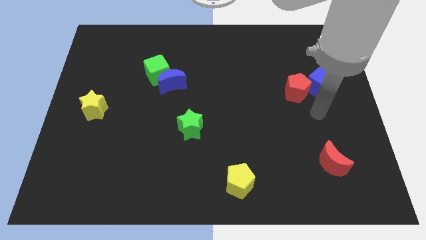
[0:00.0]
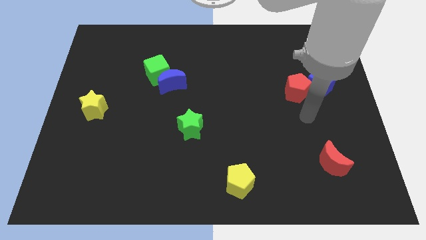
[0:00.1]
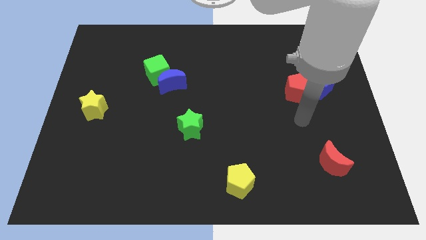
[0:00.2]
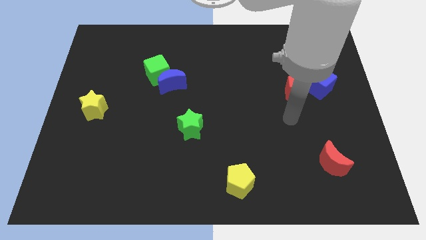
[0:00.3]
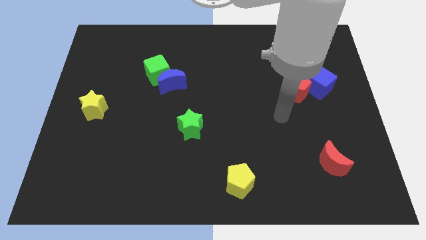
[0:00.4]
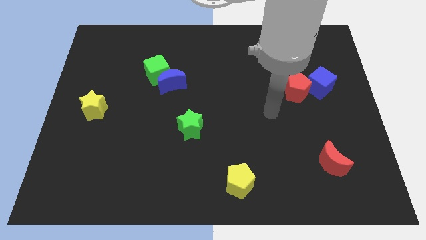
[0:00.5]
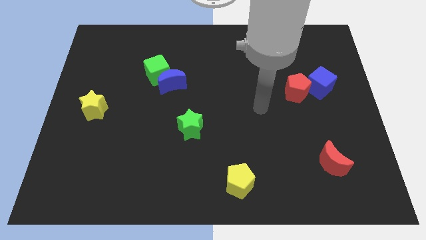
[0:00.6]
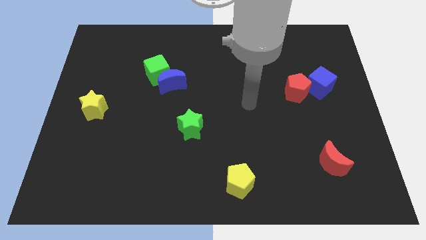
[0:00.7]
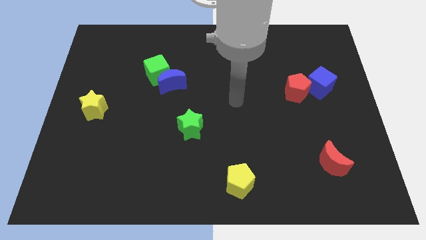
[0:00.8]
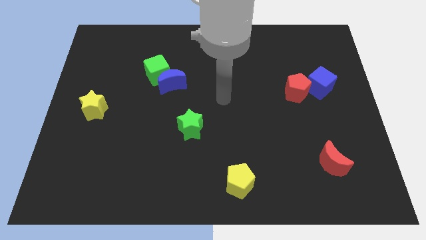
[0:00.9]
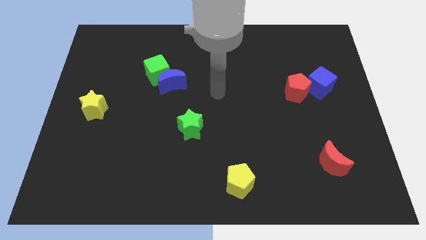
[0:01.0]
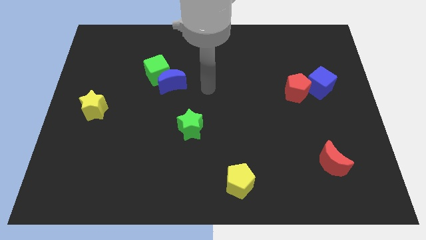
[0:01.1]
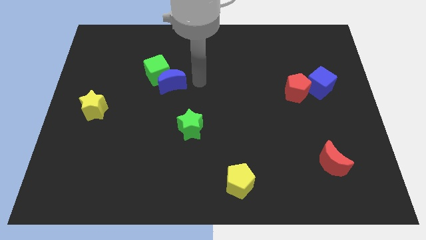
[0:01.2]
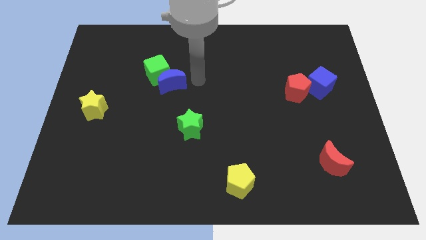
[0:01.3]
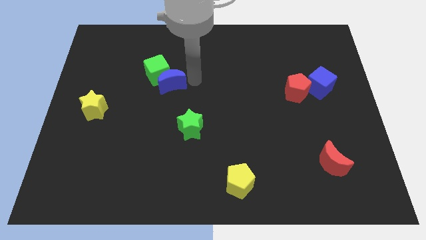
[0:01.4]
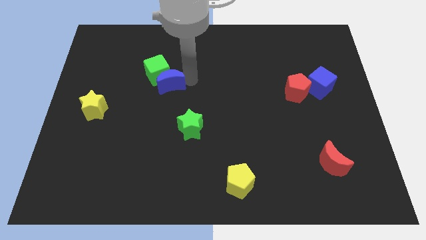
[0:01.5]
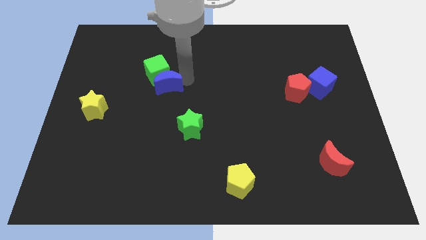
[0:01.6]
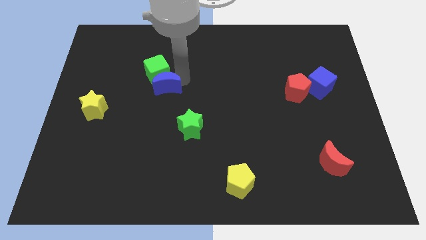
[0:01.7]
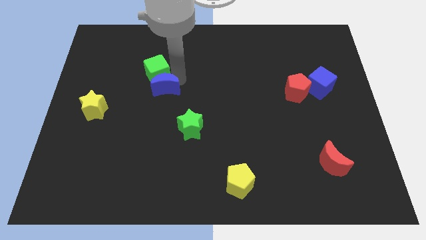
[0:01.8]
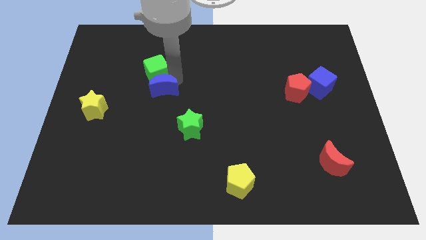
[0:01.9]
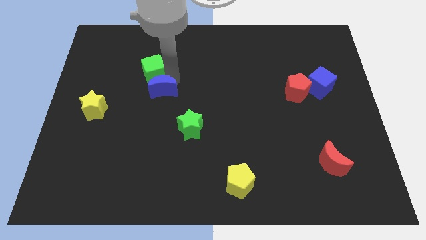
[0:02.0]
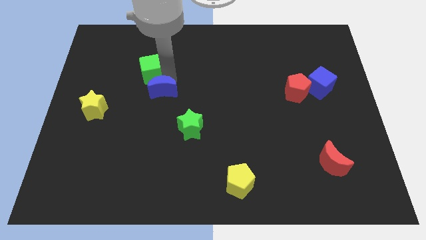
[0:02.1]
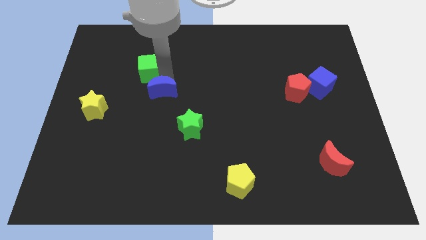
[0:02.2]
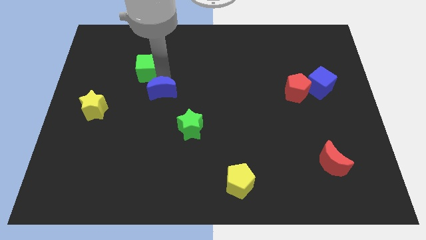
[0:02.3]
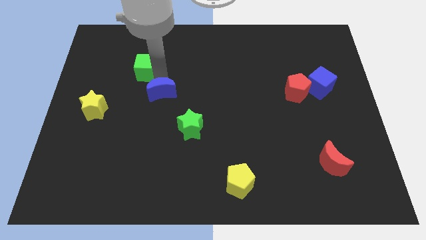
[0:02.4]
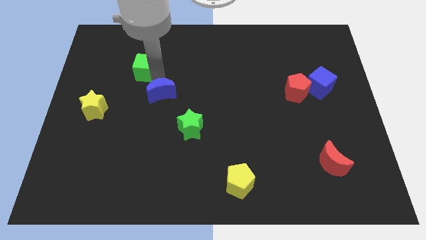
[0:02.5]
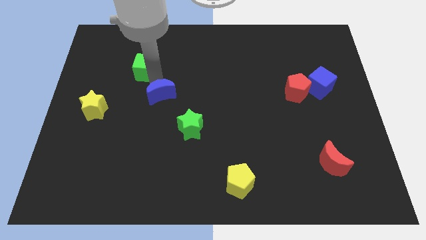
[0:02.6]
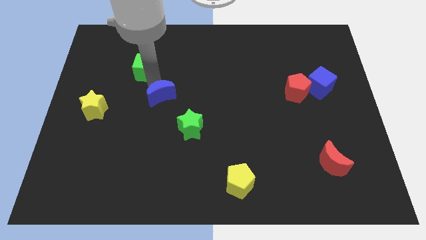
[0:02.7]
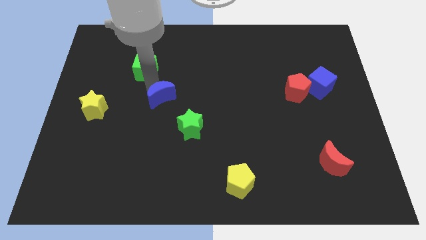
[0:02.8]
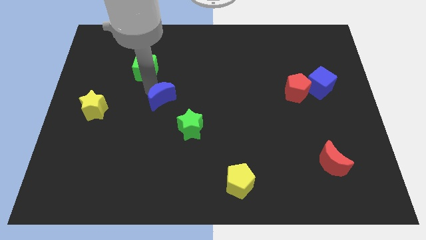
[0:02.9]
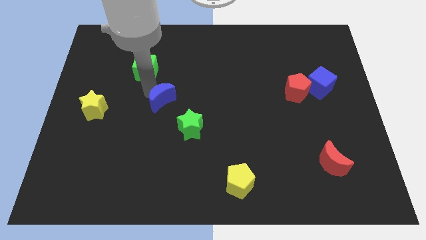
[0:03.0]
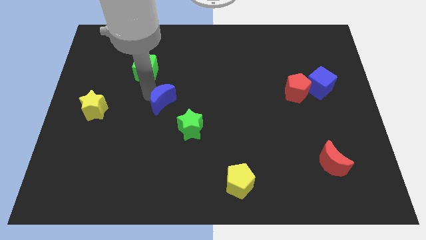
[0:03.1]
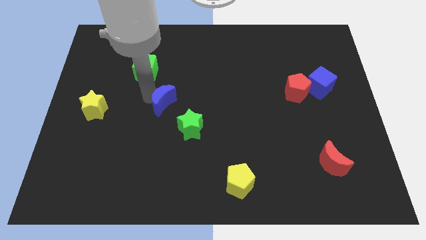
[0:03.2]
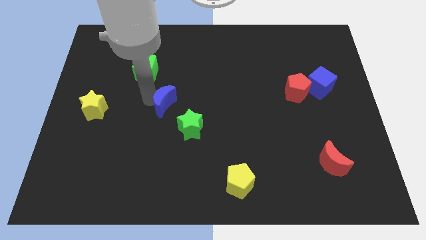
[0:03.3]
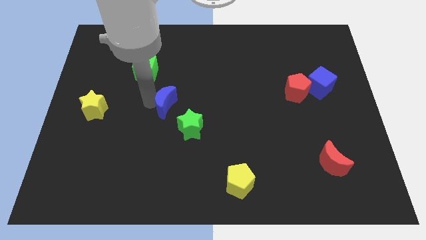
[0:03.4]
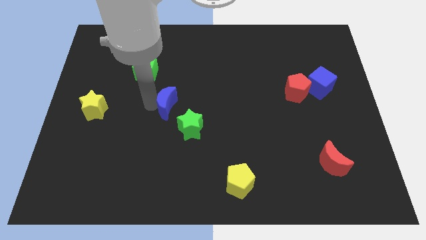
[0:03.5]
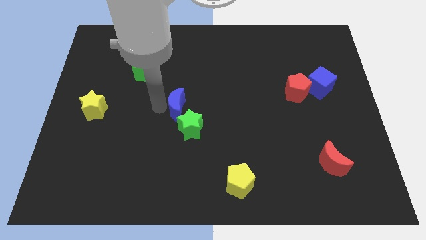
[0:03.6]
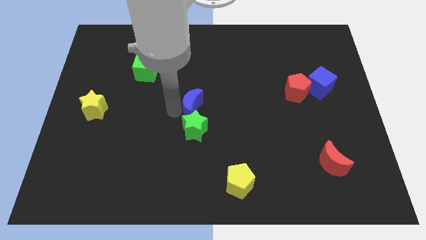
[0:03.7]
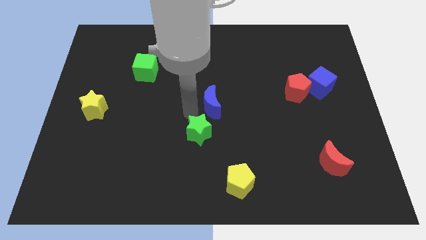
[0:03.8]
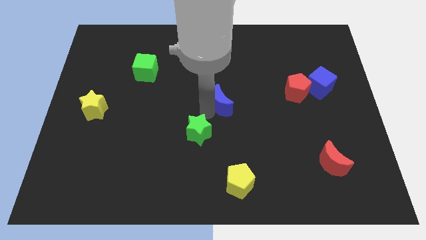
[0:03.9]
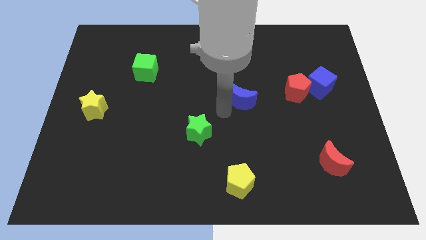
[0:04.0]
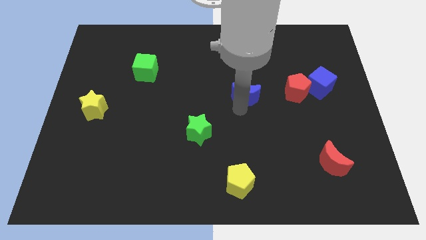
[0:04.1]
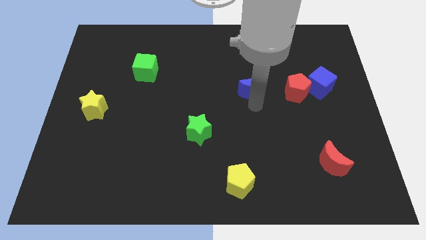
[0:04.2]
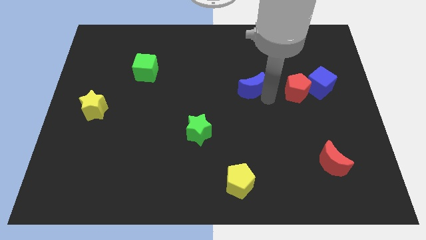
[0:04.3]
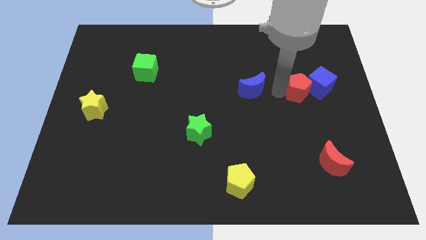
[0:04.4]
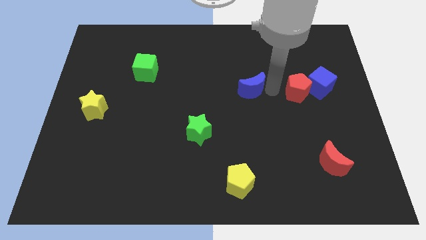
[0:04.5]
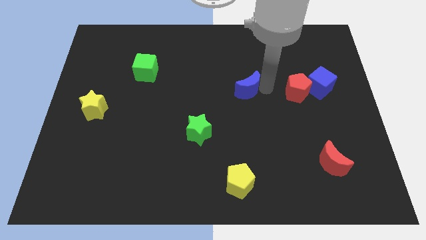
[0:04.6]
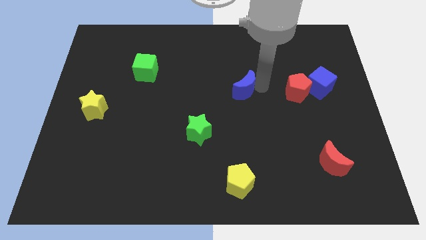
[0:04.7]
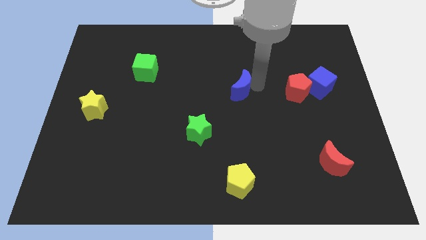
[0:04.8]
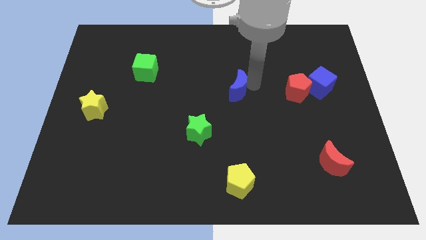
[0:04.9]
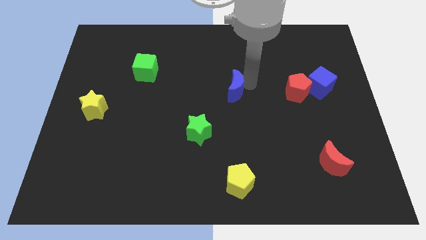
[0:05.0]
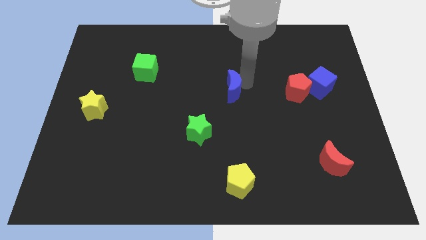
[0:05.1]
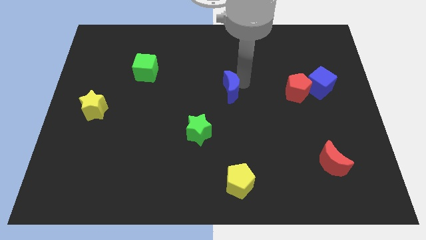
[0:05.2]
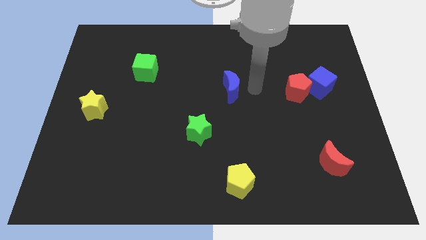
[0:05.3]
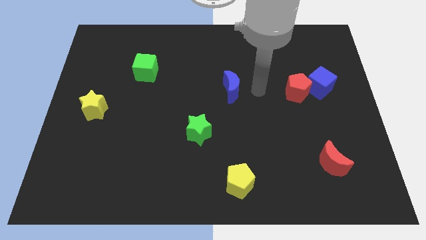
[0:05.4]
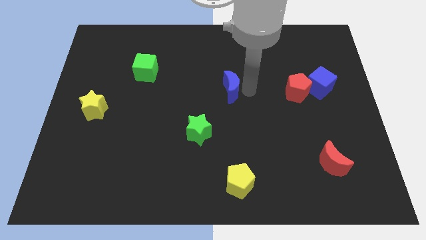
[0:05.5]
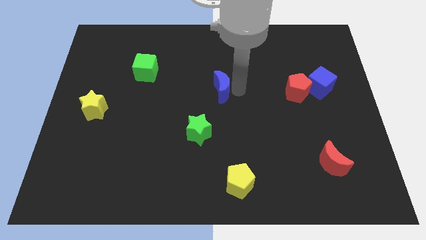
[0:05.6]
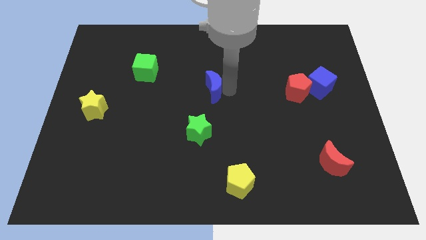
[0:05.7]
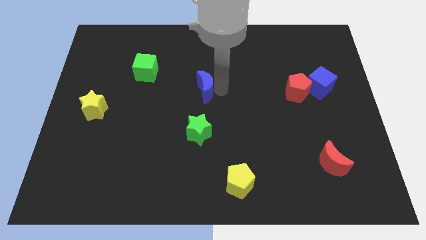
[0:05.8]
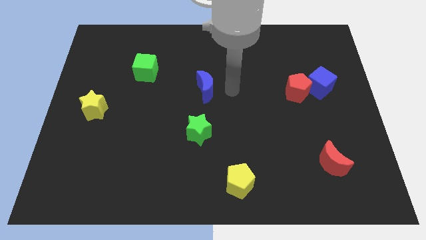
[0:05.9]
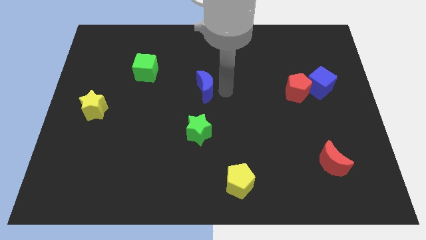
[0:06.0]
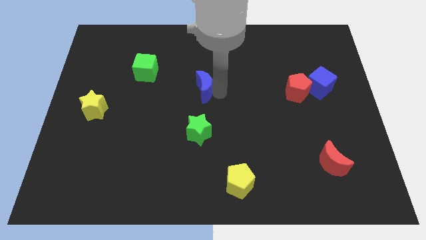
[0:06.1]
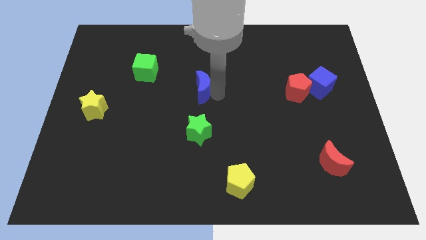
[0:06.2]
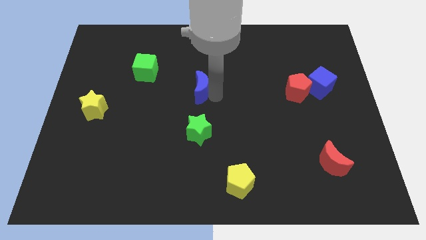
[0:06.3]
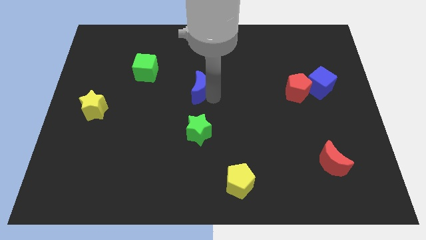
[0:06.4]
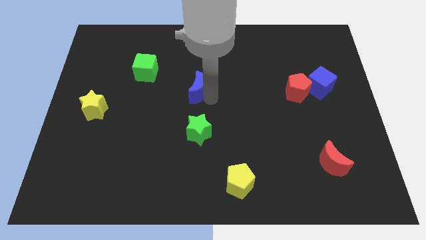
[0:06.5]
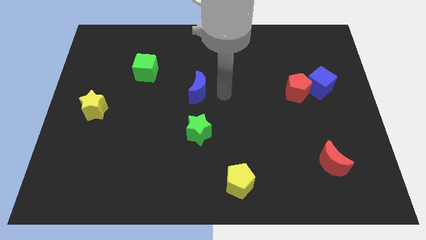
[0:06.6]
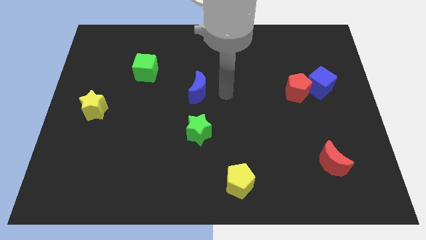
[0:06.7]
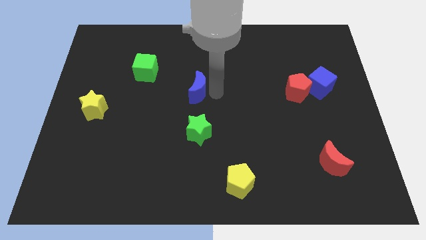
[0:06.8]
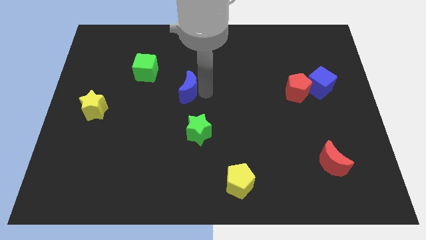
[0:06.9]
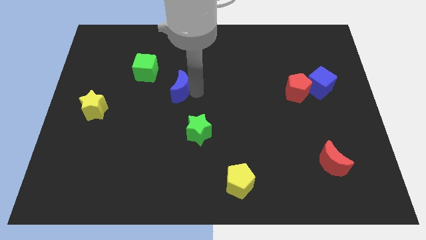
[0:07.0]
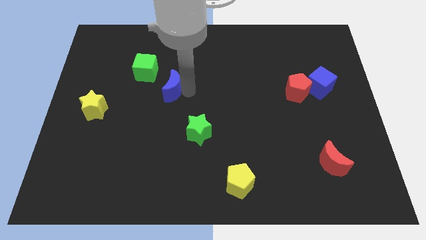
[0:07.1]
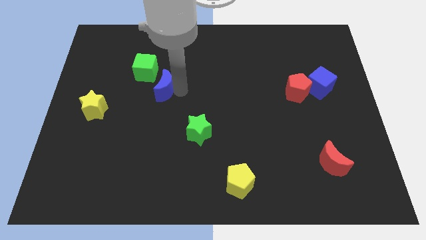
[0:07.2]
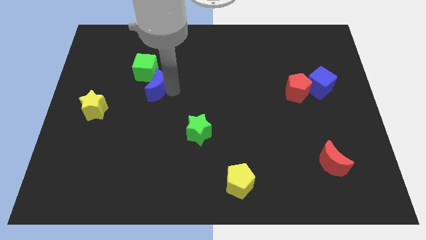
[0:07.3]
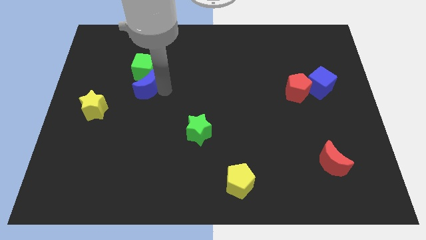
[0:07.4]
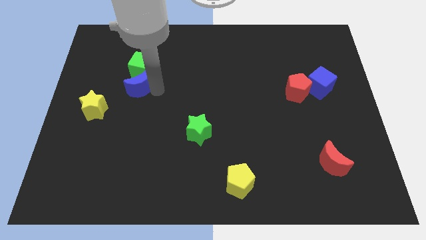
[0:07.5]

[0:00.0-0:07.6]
slide the blue moon to the bottom left of the green cube
